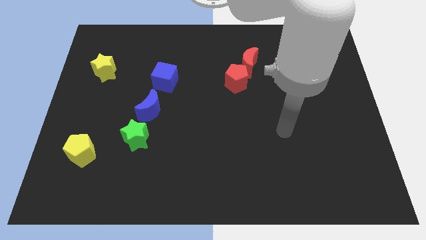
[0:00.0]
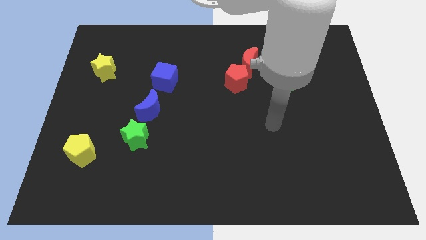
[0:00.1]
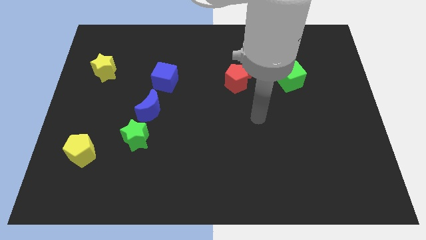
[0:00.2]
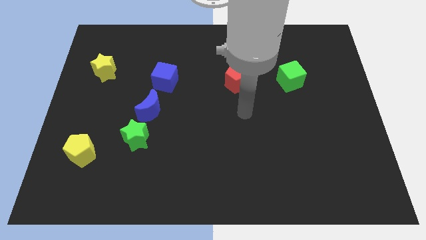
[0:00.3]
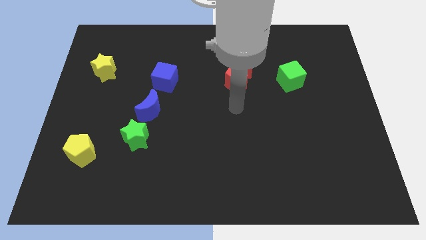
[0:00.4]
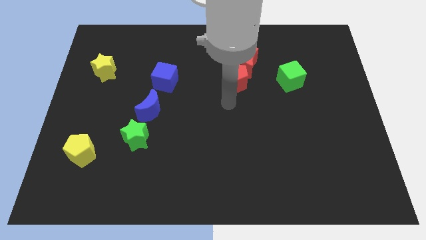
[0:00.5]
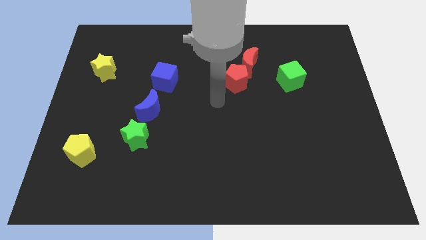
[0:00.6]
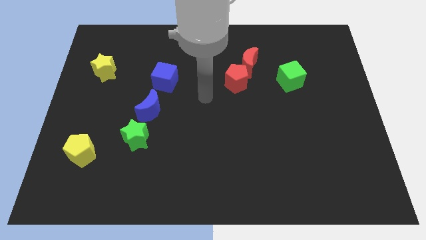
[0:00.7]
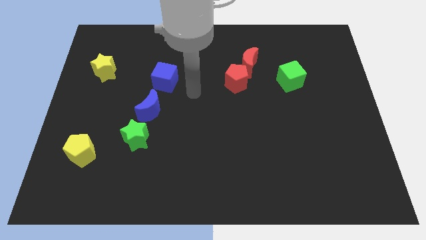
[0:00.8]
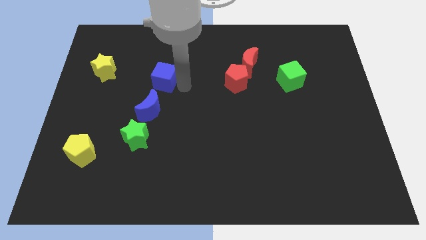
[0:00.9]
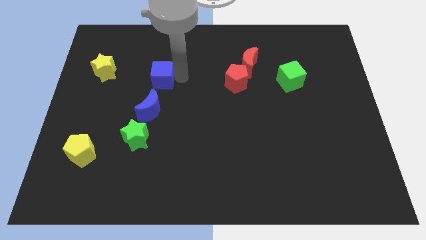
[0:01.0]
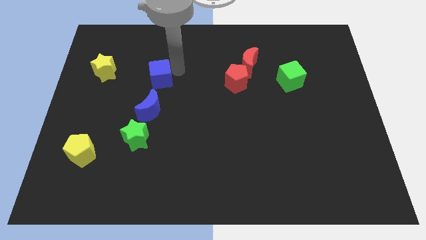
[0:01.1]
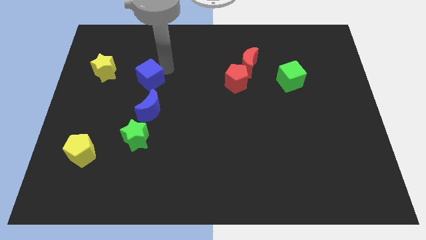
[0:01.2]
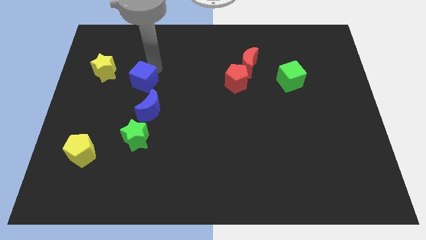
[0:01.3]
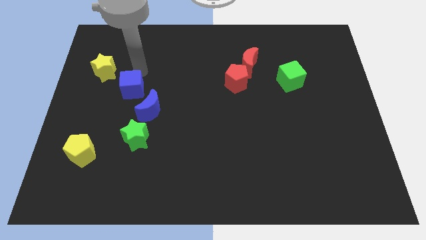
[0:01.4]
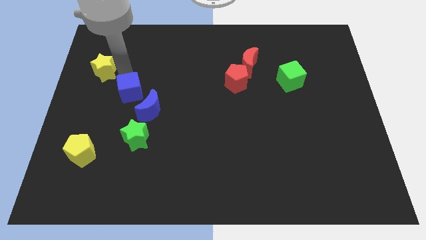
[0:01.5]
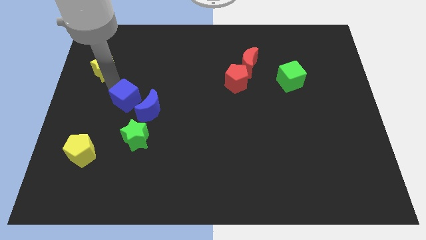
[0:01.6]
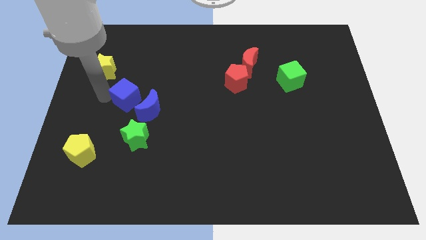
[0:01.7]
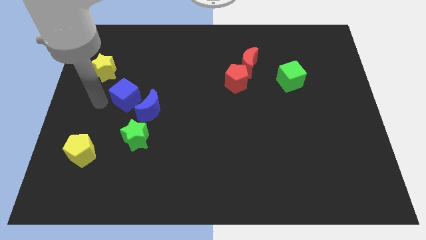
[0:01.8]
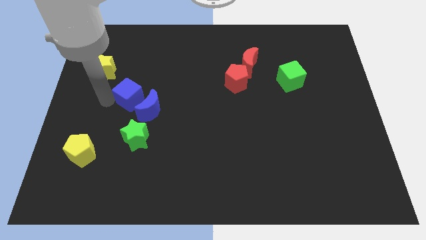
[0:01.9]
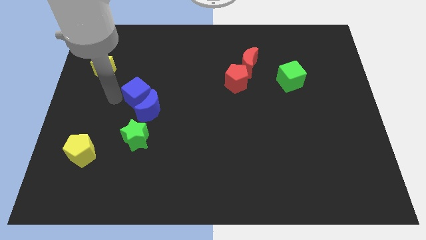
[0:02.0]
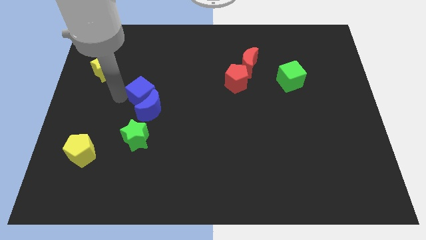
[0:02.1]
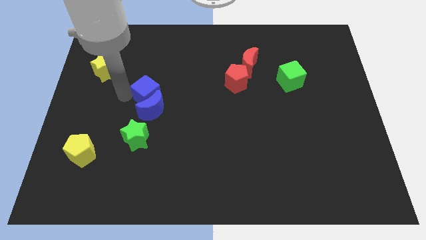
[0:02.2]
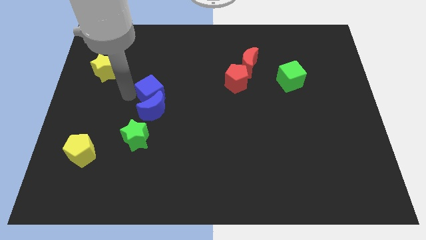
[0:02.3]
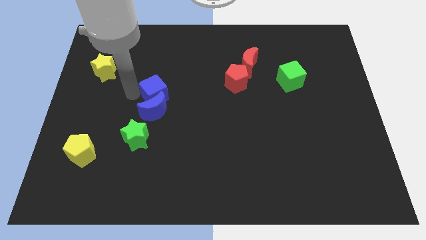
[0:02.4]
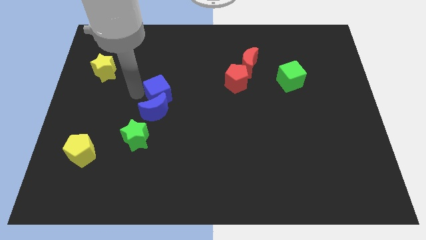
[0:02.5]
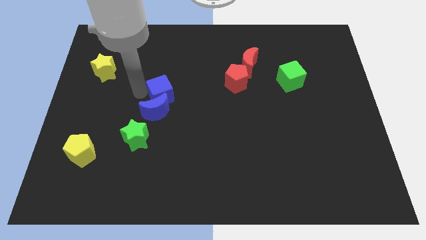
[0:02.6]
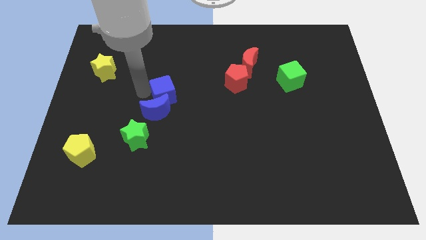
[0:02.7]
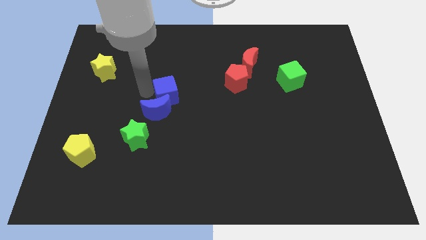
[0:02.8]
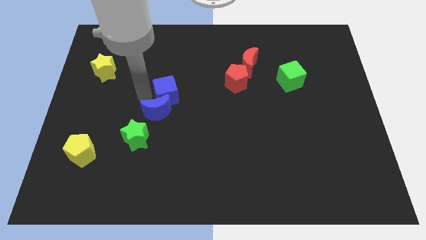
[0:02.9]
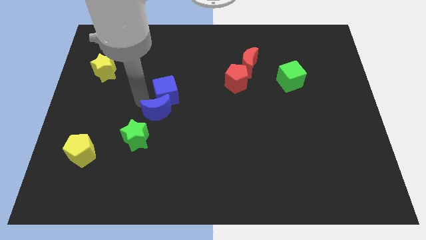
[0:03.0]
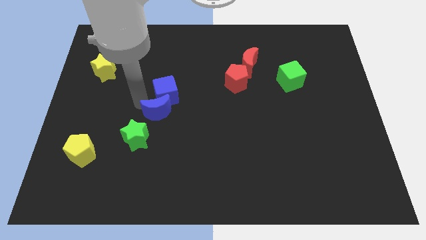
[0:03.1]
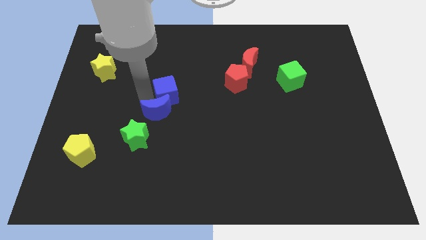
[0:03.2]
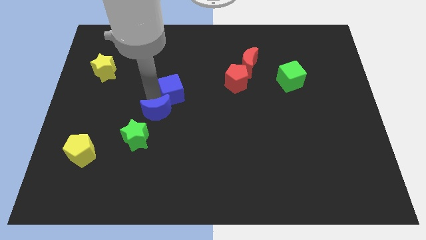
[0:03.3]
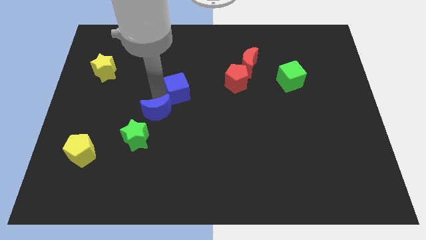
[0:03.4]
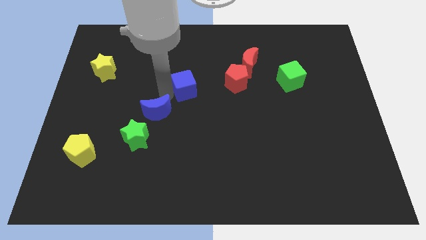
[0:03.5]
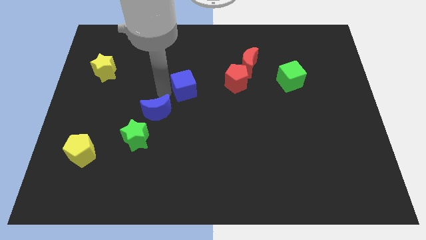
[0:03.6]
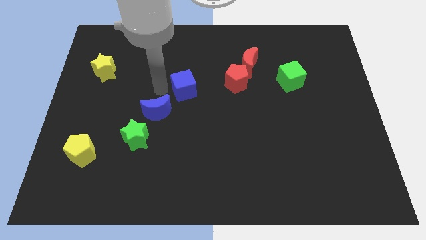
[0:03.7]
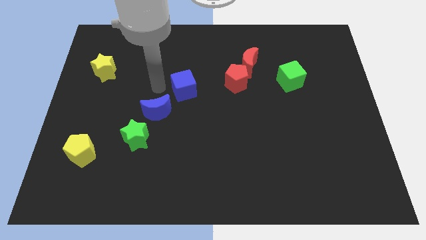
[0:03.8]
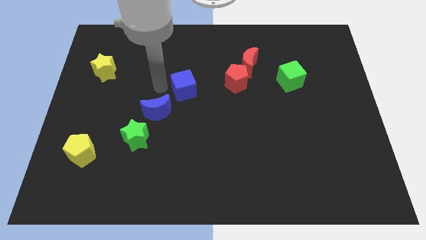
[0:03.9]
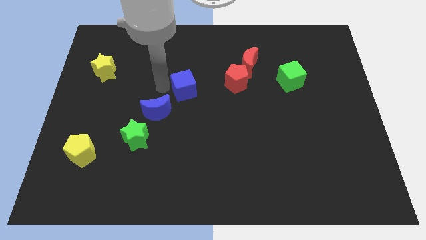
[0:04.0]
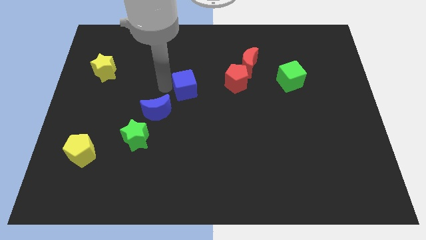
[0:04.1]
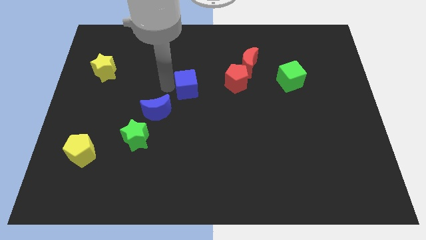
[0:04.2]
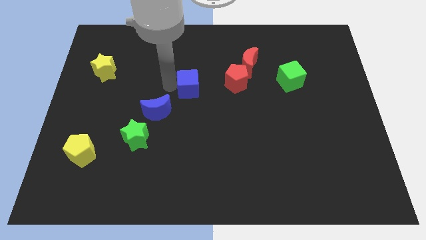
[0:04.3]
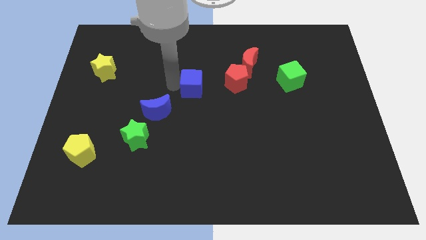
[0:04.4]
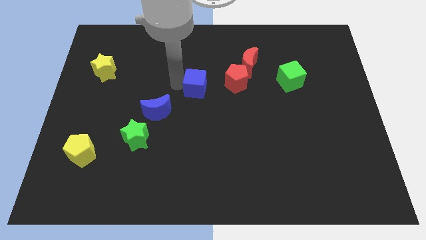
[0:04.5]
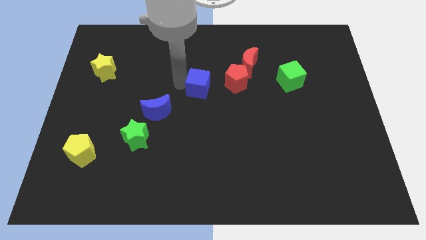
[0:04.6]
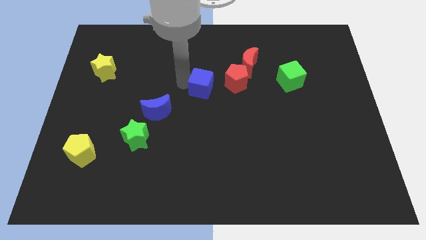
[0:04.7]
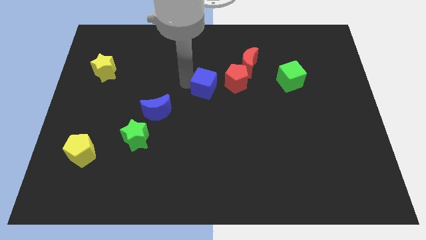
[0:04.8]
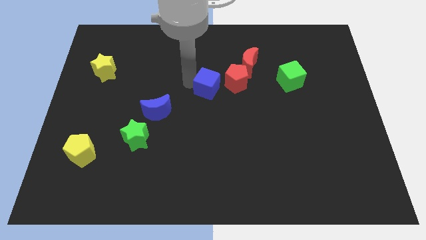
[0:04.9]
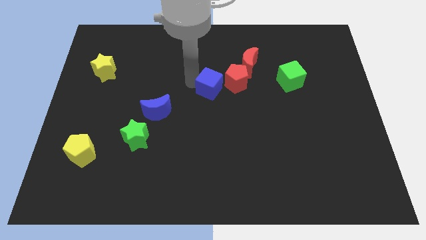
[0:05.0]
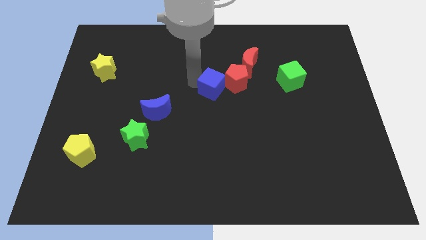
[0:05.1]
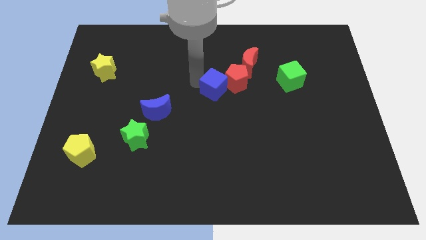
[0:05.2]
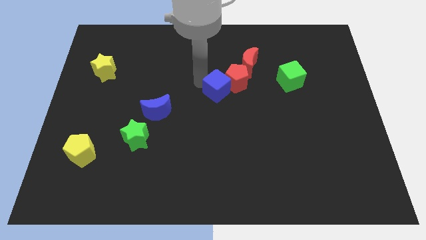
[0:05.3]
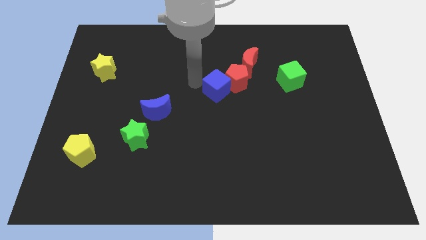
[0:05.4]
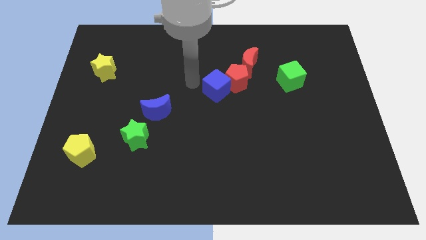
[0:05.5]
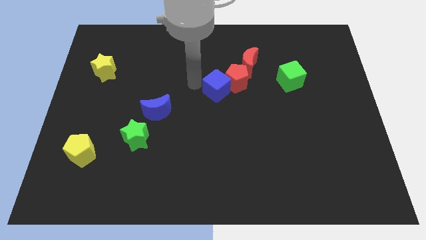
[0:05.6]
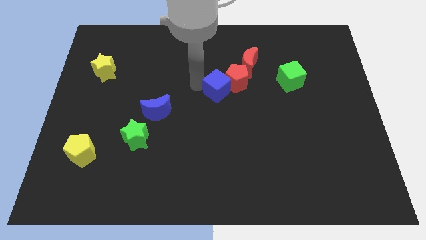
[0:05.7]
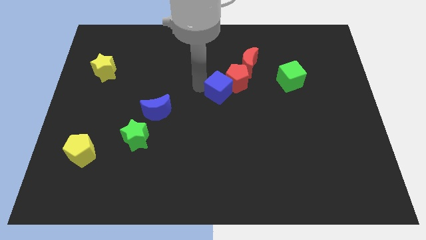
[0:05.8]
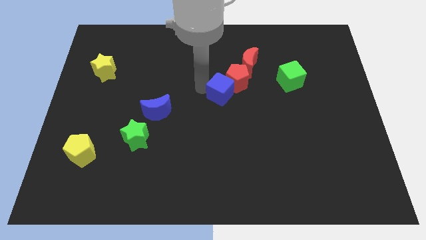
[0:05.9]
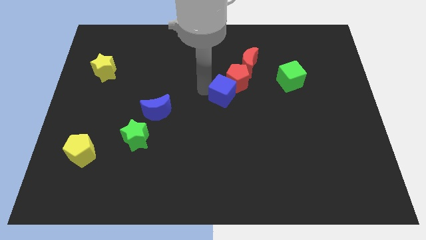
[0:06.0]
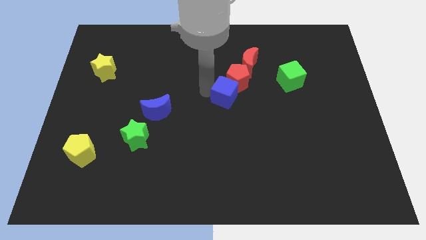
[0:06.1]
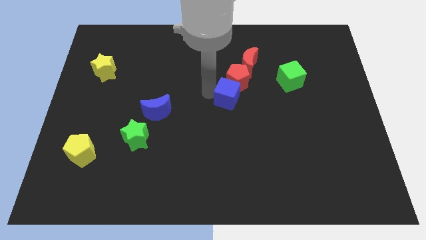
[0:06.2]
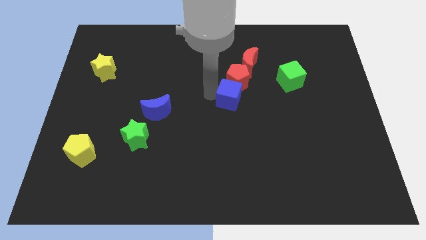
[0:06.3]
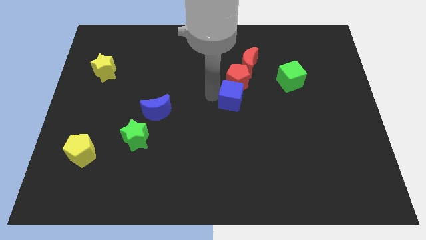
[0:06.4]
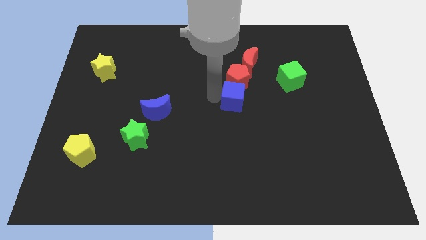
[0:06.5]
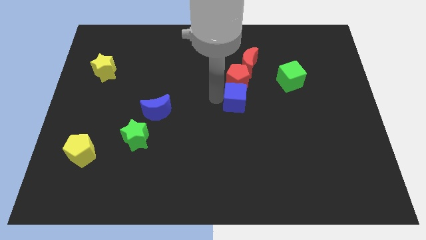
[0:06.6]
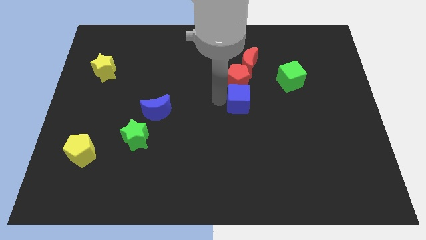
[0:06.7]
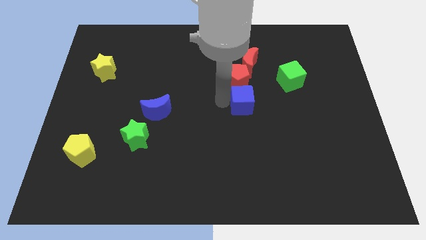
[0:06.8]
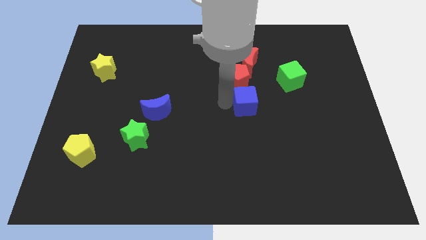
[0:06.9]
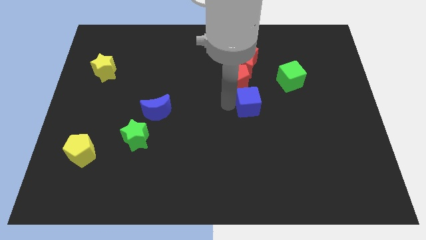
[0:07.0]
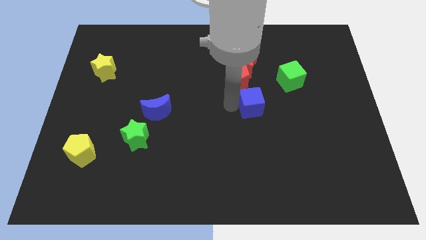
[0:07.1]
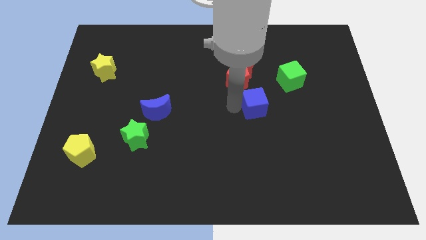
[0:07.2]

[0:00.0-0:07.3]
move the blue cube to the bottom left side of the green cube
